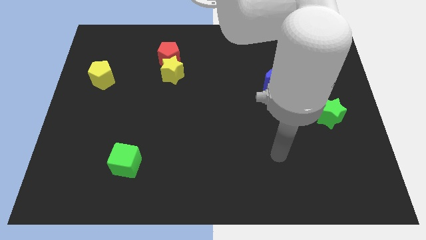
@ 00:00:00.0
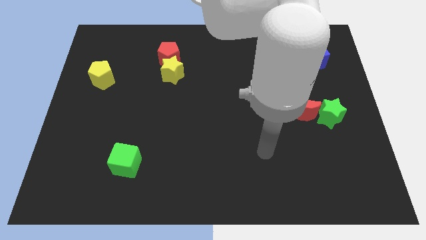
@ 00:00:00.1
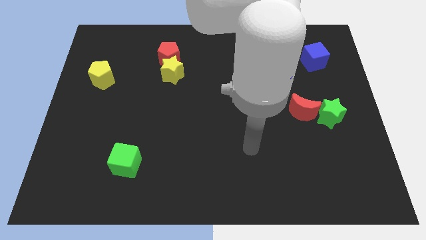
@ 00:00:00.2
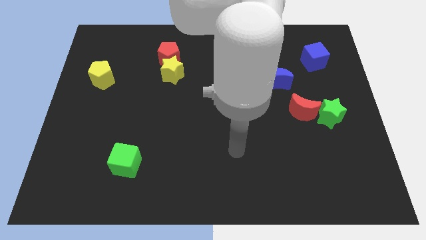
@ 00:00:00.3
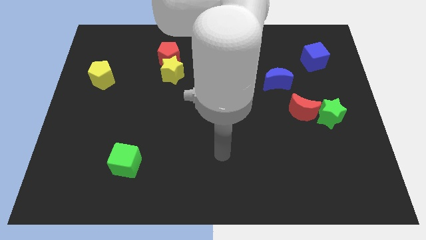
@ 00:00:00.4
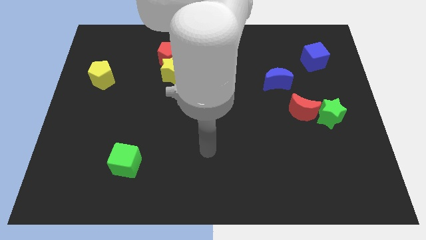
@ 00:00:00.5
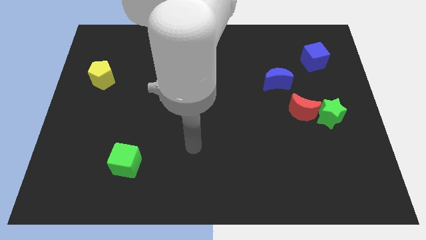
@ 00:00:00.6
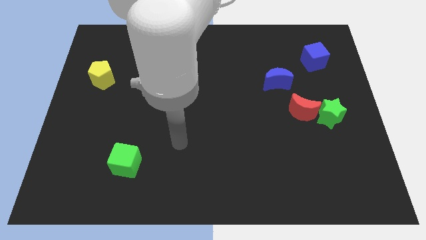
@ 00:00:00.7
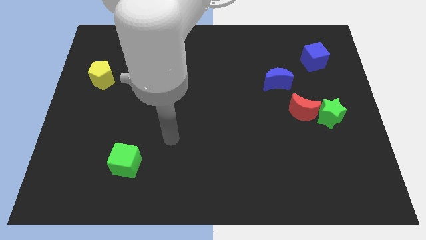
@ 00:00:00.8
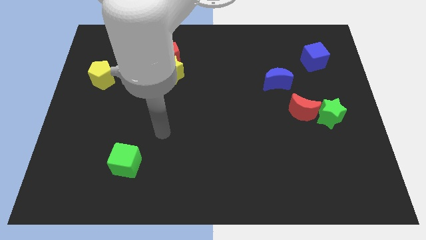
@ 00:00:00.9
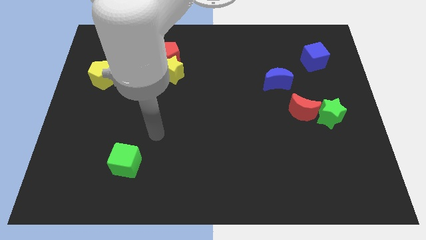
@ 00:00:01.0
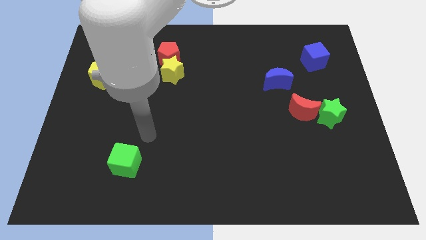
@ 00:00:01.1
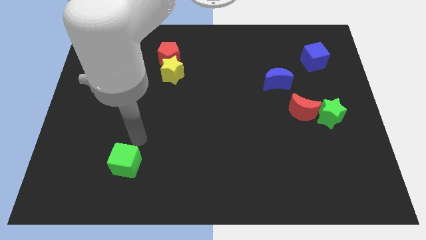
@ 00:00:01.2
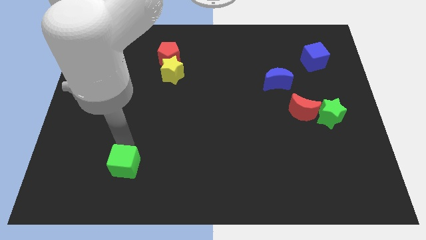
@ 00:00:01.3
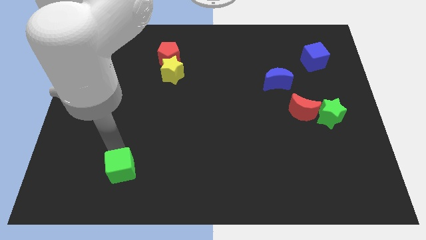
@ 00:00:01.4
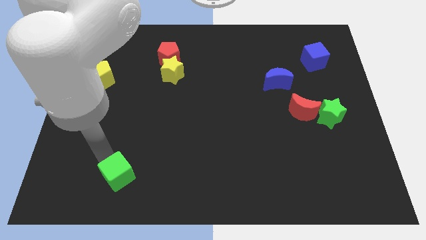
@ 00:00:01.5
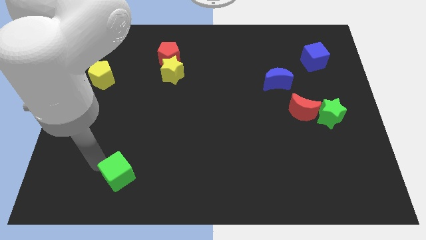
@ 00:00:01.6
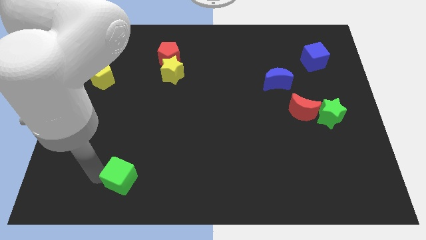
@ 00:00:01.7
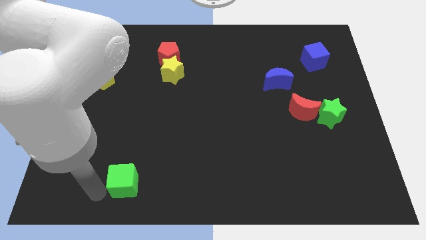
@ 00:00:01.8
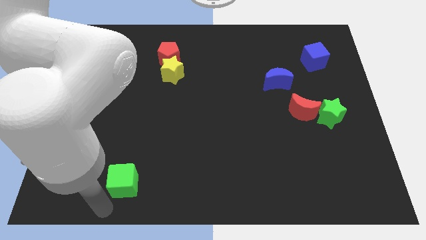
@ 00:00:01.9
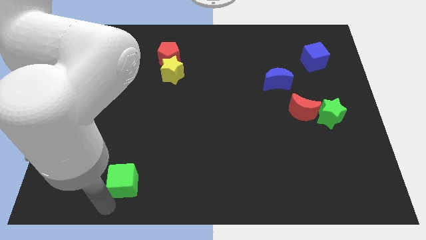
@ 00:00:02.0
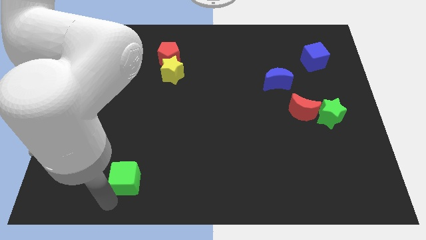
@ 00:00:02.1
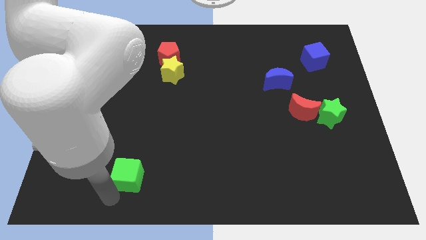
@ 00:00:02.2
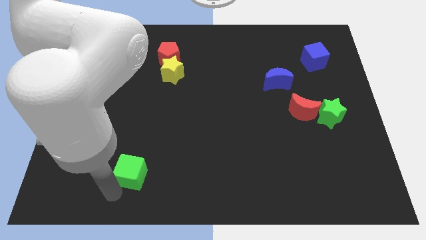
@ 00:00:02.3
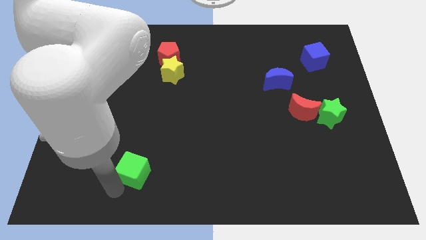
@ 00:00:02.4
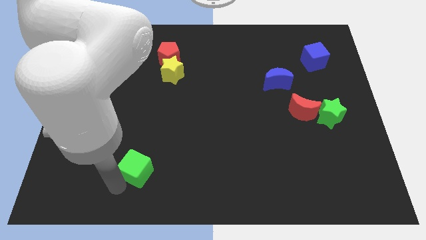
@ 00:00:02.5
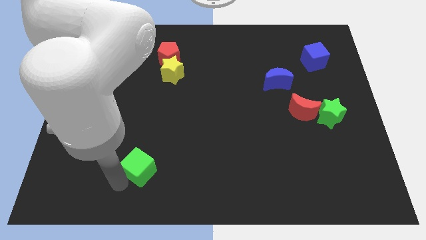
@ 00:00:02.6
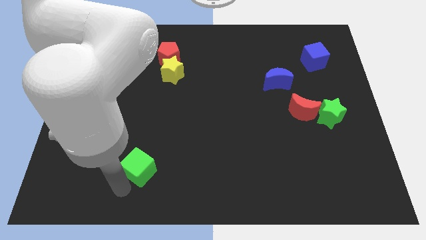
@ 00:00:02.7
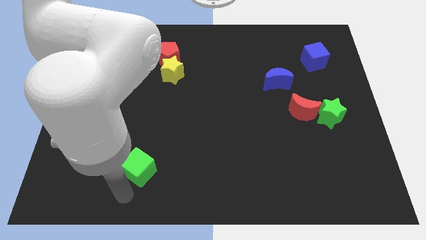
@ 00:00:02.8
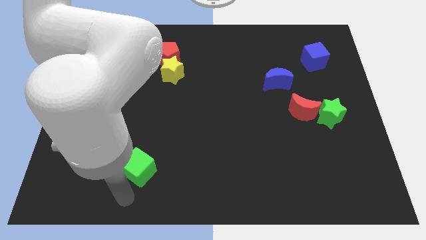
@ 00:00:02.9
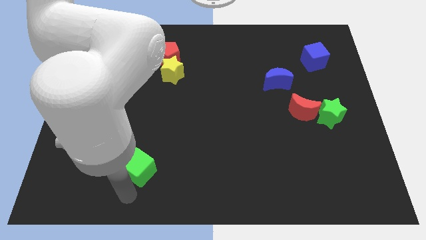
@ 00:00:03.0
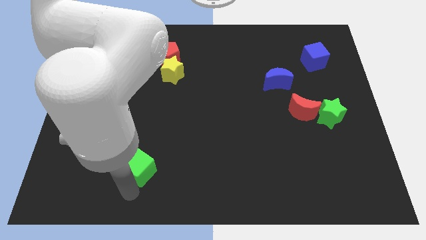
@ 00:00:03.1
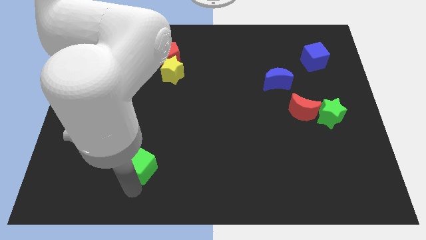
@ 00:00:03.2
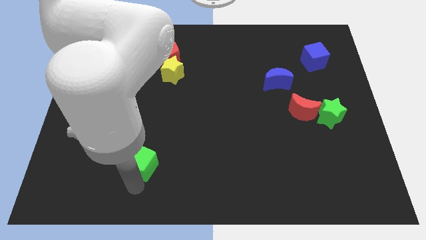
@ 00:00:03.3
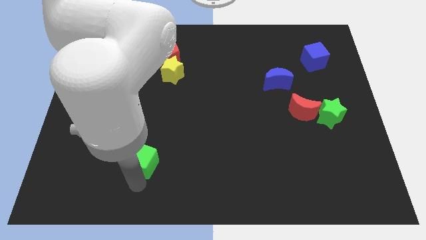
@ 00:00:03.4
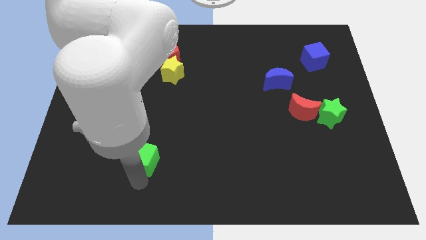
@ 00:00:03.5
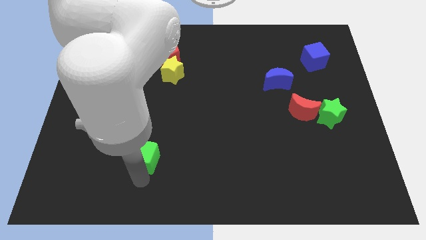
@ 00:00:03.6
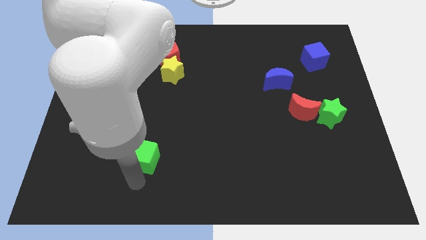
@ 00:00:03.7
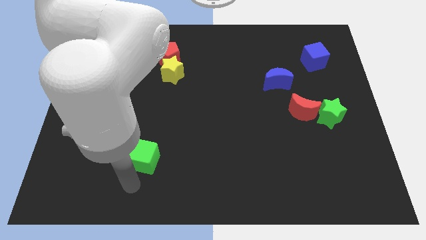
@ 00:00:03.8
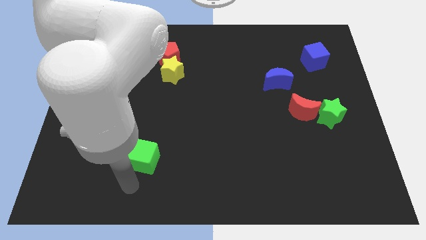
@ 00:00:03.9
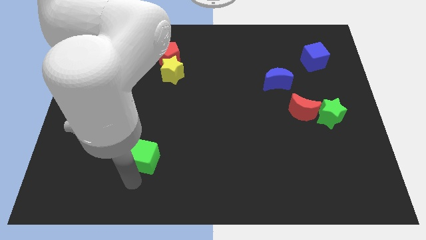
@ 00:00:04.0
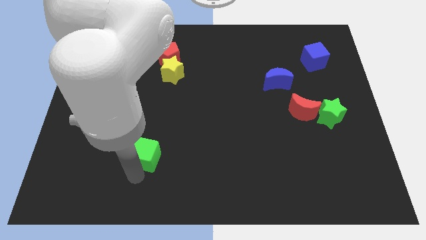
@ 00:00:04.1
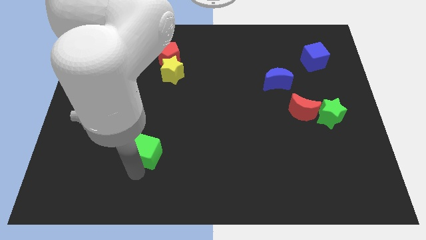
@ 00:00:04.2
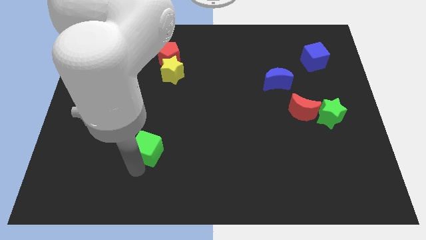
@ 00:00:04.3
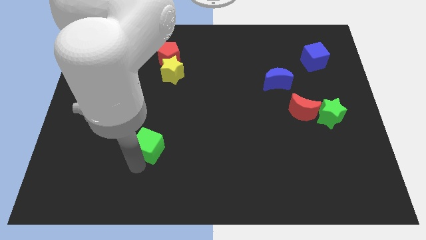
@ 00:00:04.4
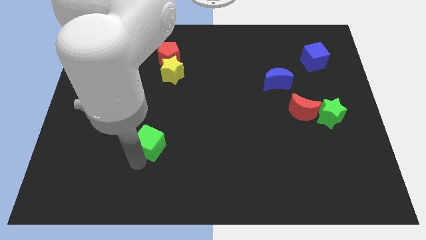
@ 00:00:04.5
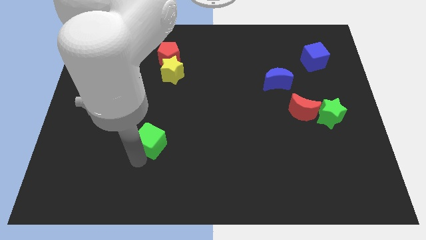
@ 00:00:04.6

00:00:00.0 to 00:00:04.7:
push the green cube upwards and to the right diagonally slightly

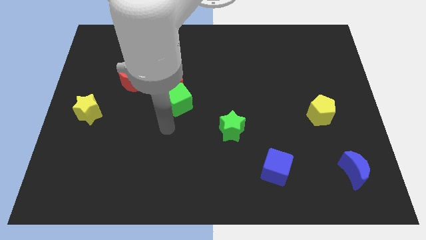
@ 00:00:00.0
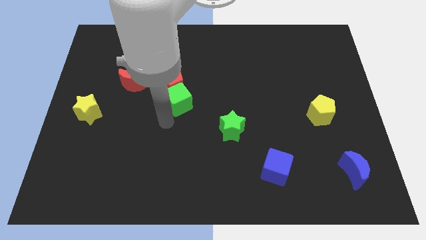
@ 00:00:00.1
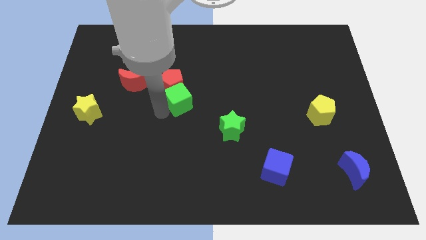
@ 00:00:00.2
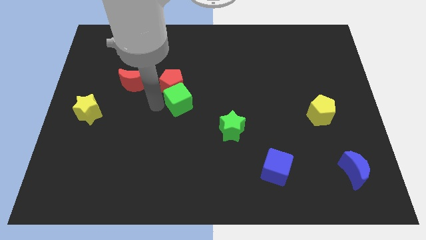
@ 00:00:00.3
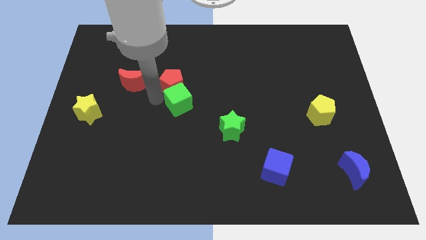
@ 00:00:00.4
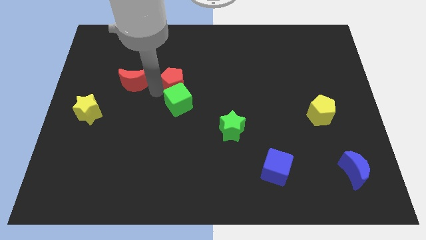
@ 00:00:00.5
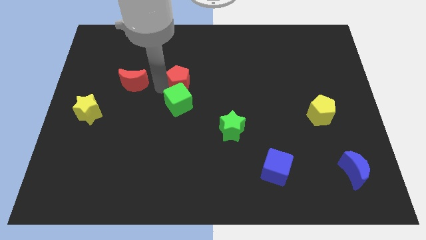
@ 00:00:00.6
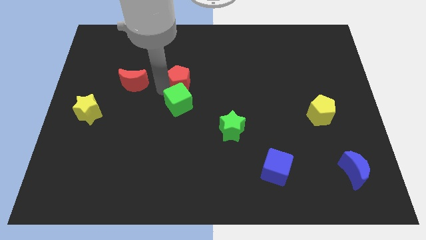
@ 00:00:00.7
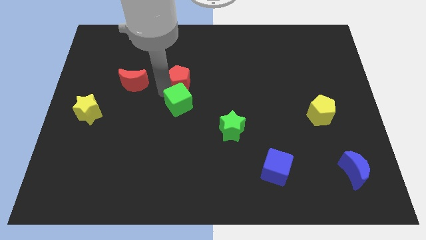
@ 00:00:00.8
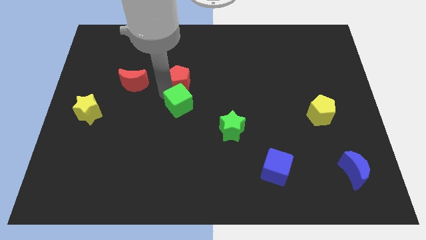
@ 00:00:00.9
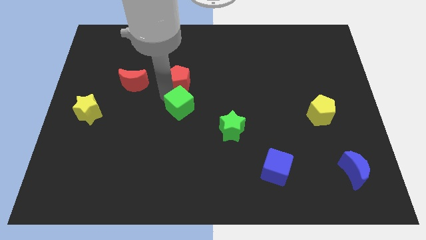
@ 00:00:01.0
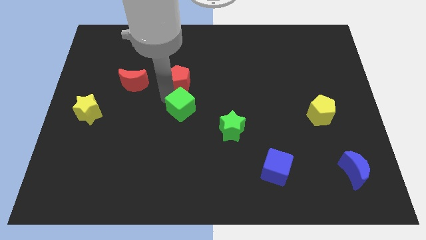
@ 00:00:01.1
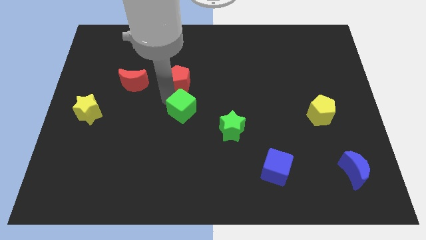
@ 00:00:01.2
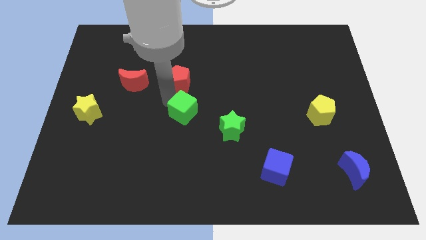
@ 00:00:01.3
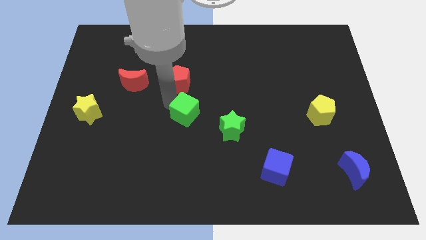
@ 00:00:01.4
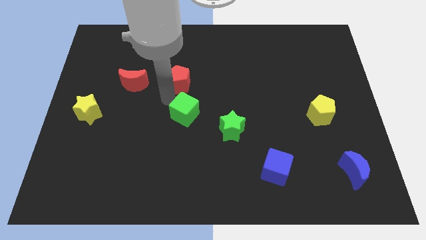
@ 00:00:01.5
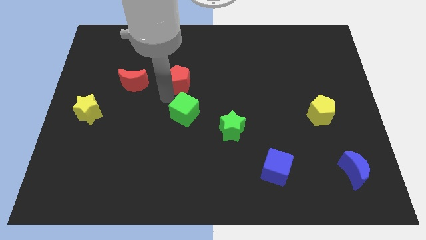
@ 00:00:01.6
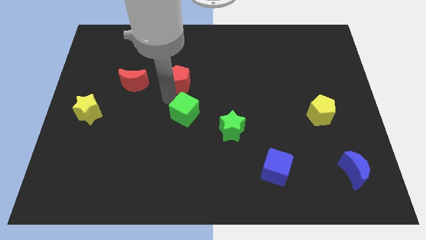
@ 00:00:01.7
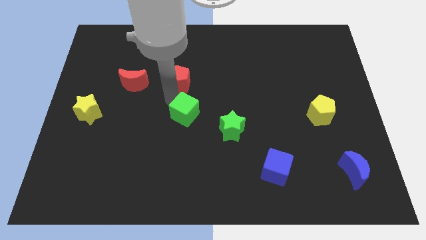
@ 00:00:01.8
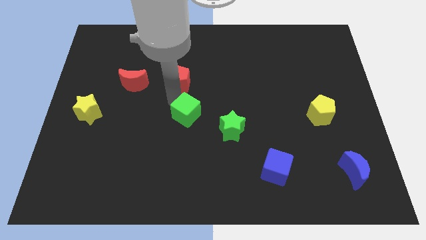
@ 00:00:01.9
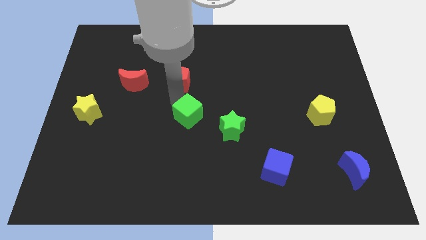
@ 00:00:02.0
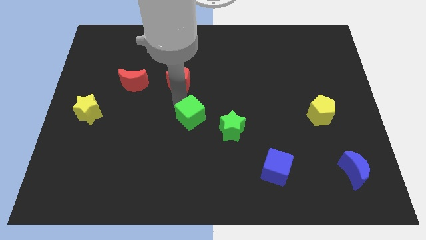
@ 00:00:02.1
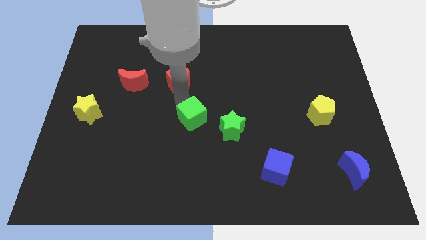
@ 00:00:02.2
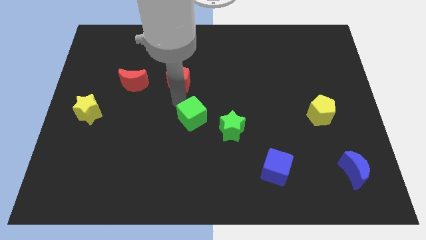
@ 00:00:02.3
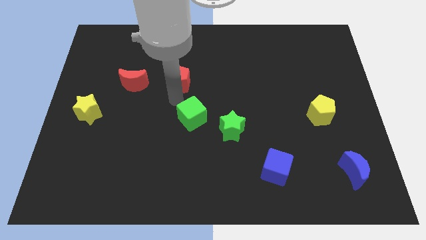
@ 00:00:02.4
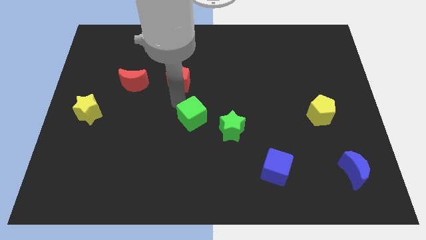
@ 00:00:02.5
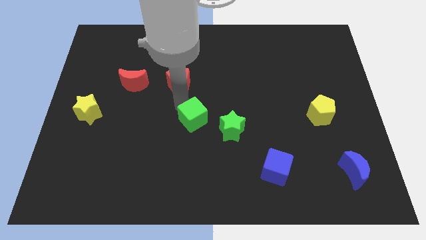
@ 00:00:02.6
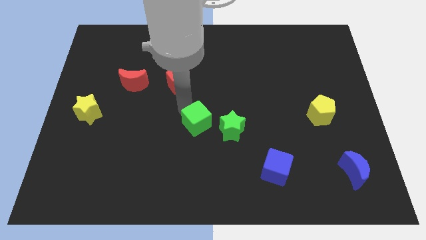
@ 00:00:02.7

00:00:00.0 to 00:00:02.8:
slide the green cube a bit down and then to the right
